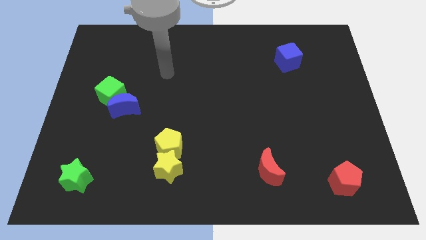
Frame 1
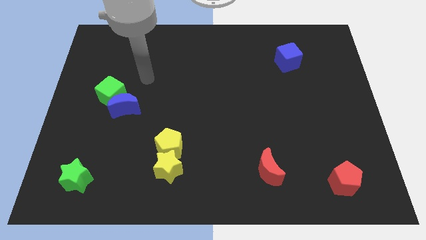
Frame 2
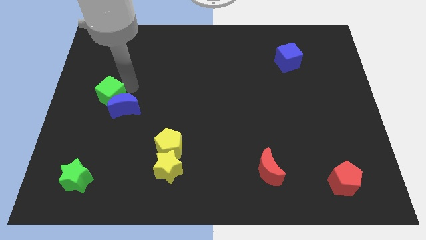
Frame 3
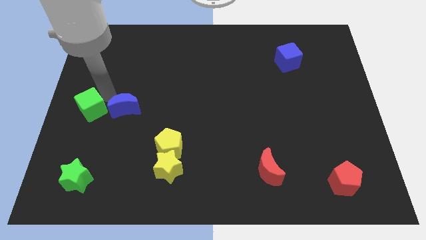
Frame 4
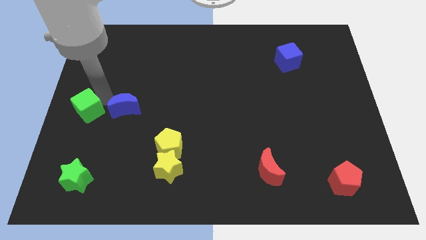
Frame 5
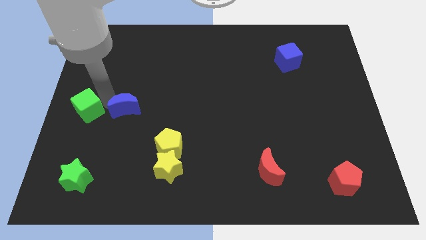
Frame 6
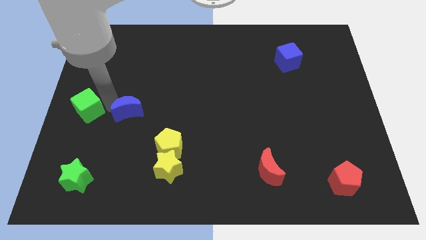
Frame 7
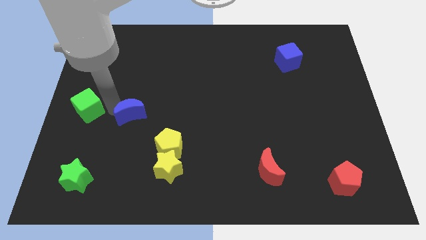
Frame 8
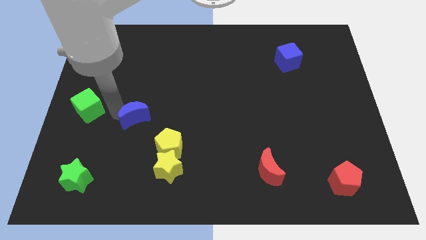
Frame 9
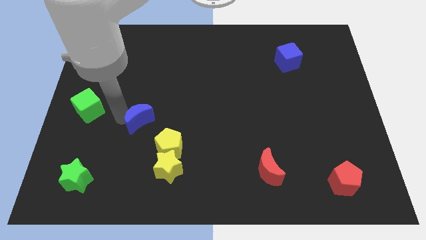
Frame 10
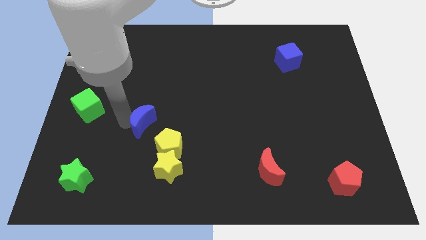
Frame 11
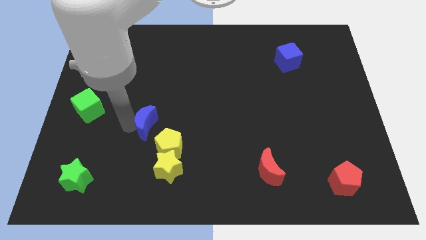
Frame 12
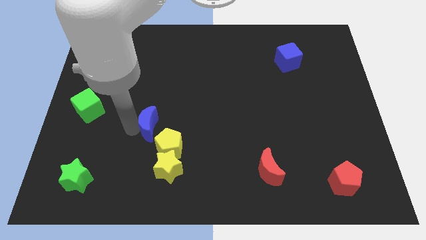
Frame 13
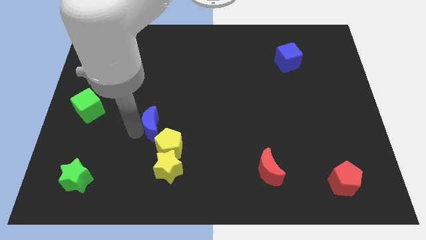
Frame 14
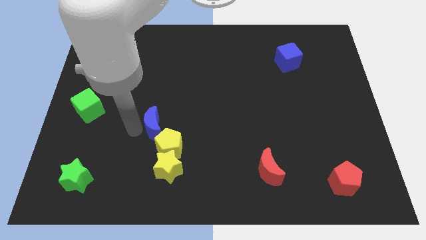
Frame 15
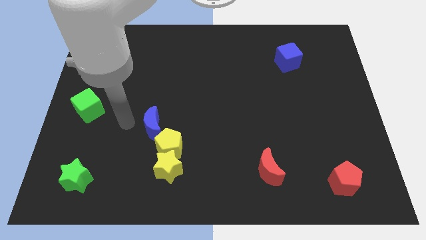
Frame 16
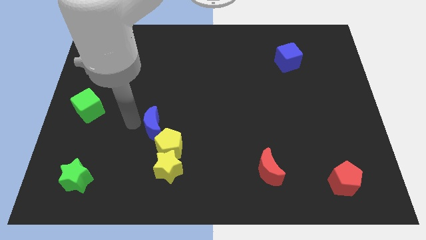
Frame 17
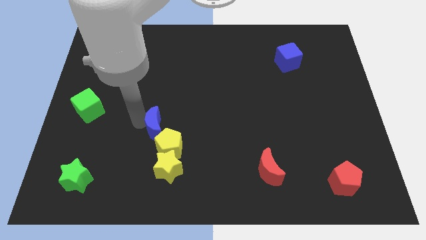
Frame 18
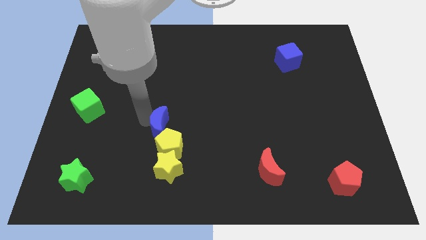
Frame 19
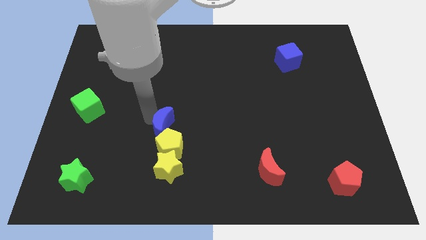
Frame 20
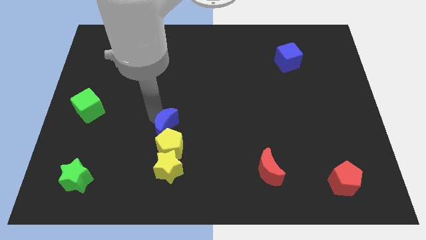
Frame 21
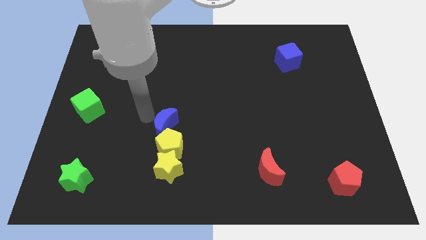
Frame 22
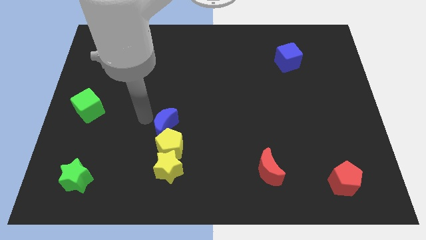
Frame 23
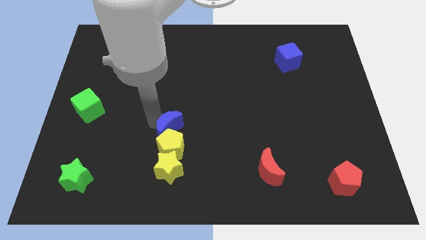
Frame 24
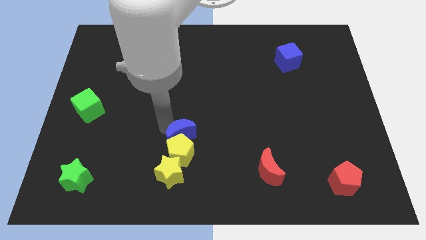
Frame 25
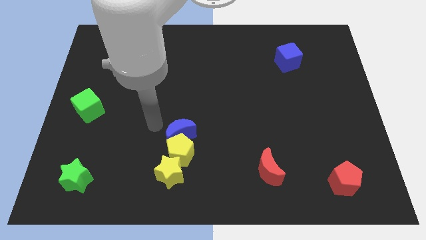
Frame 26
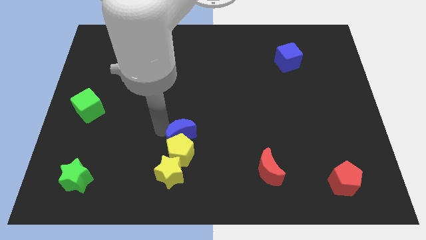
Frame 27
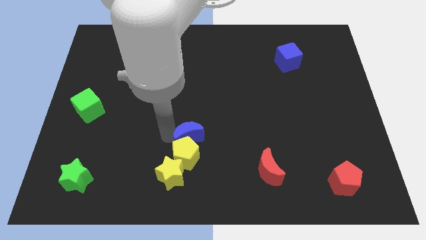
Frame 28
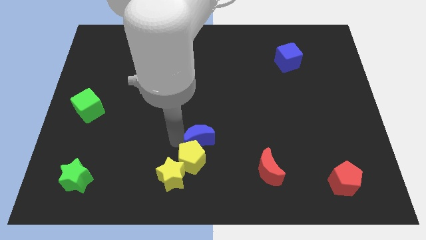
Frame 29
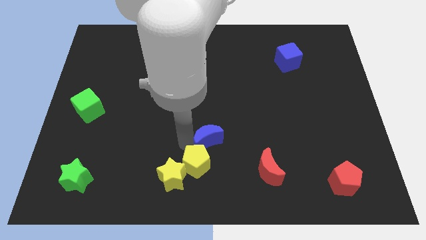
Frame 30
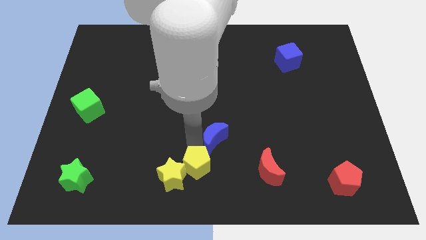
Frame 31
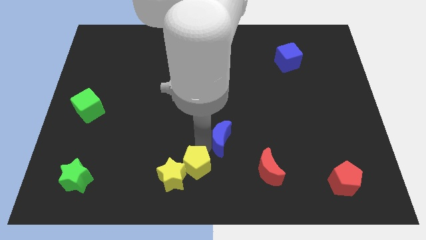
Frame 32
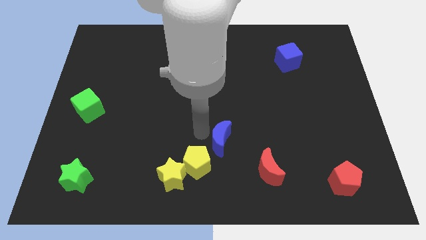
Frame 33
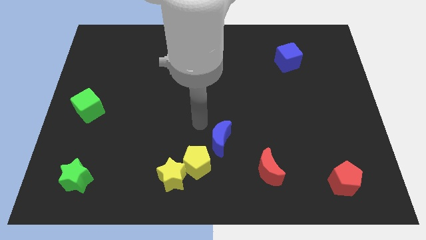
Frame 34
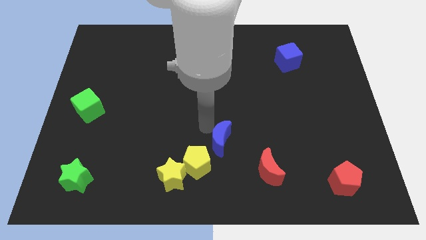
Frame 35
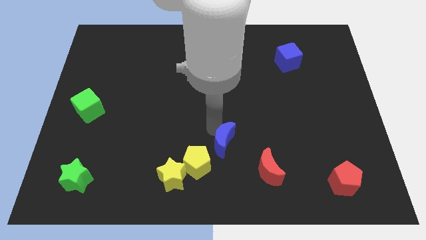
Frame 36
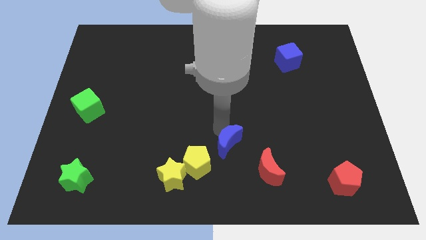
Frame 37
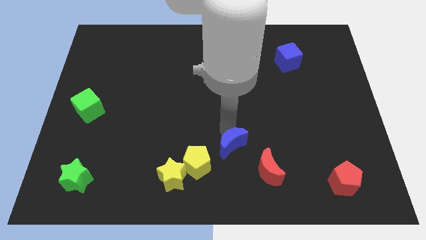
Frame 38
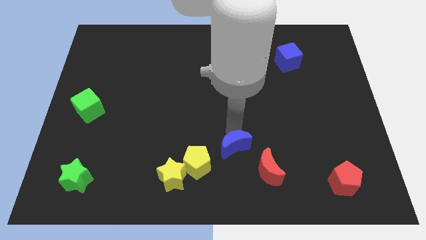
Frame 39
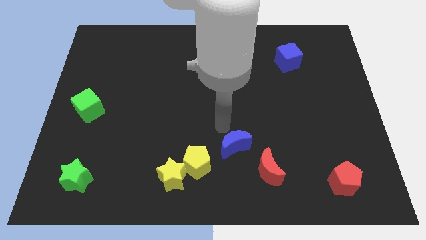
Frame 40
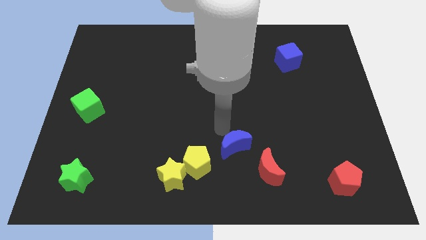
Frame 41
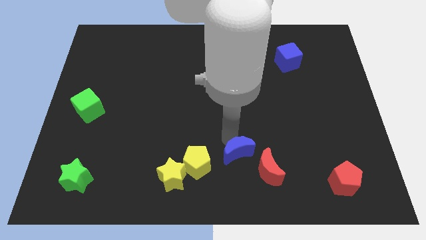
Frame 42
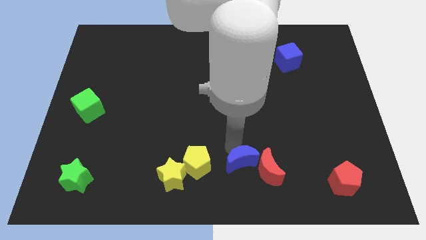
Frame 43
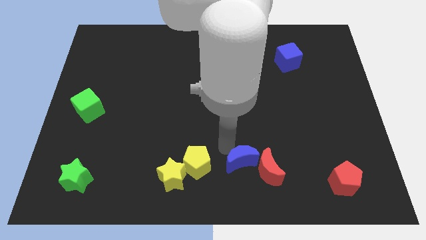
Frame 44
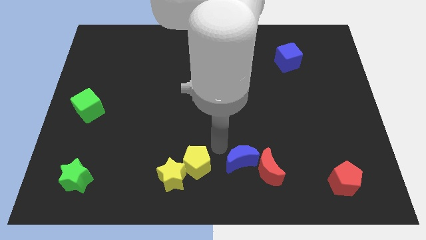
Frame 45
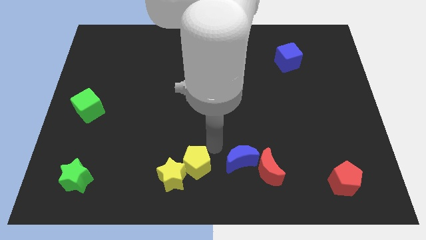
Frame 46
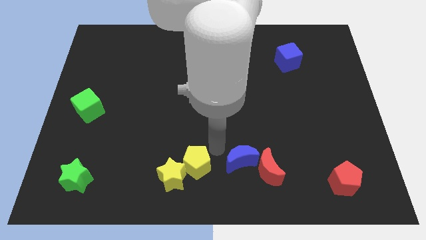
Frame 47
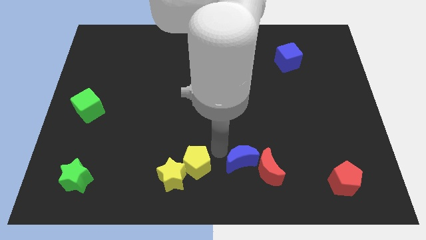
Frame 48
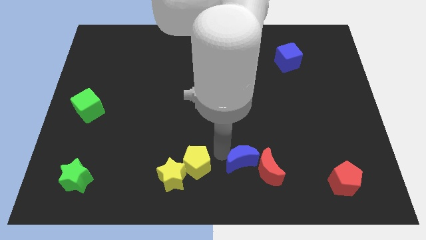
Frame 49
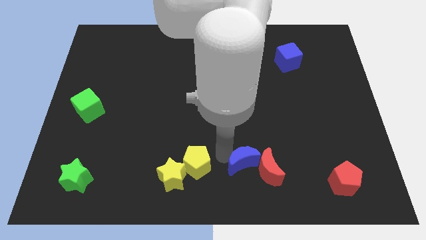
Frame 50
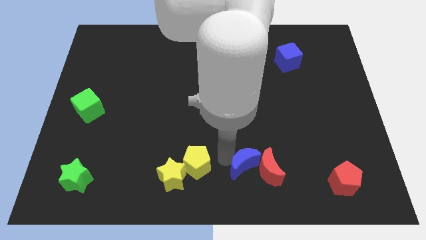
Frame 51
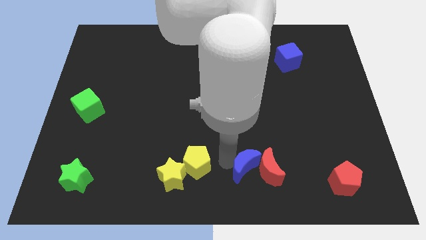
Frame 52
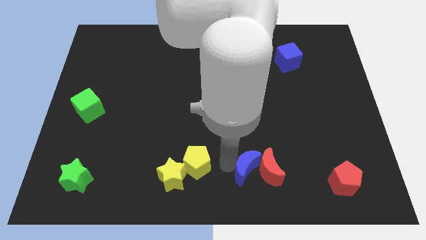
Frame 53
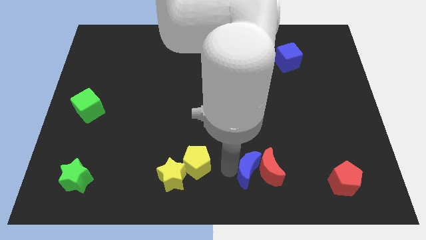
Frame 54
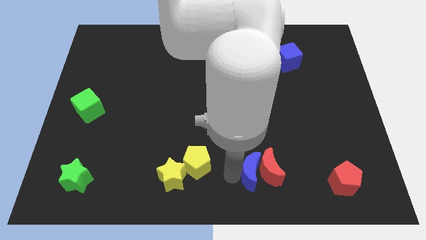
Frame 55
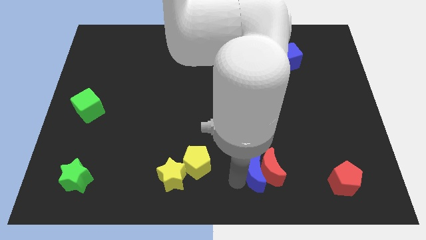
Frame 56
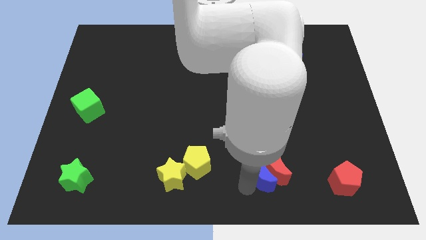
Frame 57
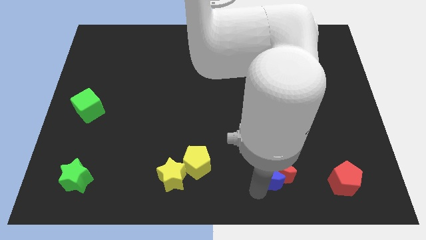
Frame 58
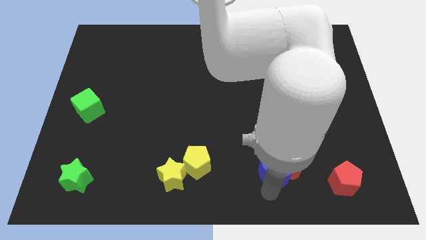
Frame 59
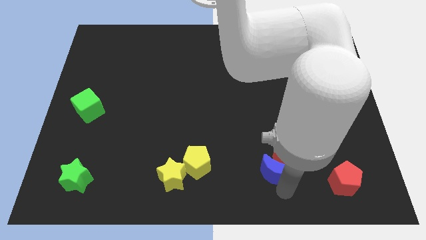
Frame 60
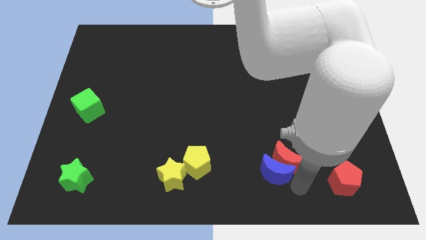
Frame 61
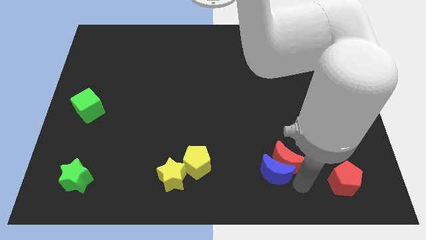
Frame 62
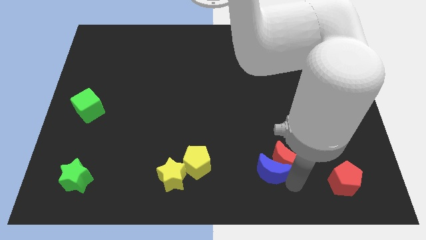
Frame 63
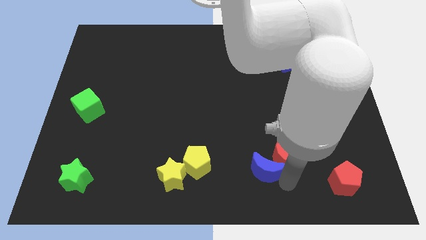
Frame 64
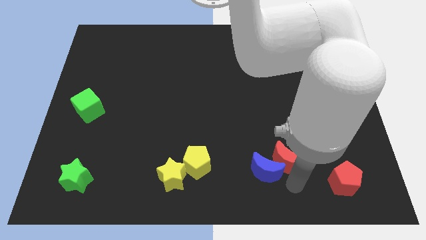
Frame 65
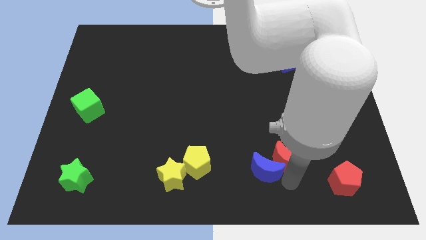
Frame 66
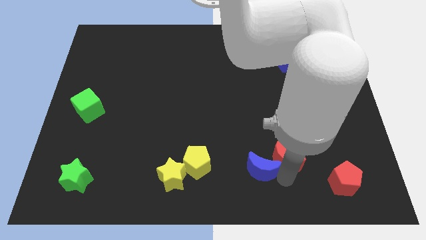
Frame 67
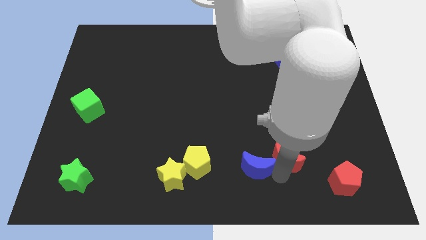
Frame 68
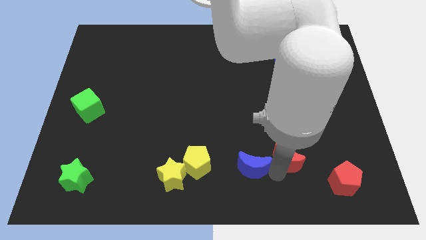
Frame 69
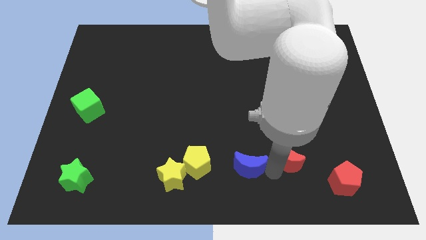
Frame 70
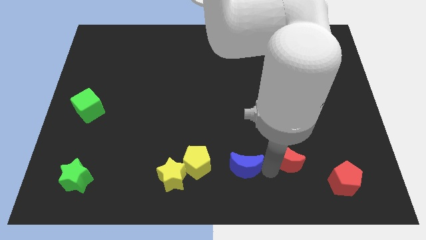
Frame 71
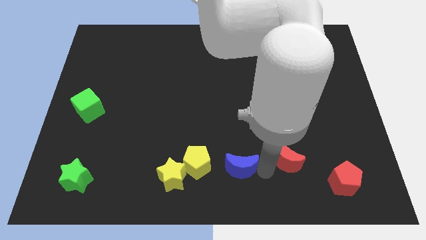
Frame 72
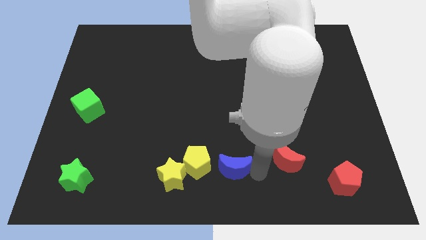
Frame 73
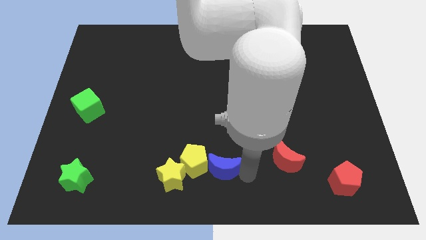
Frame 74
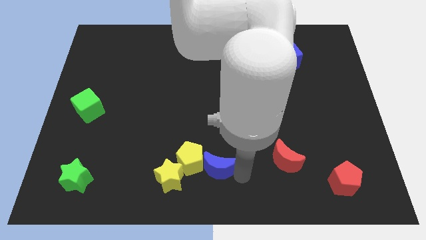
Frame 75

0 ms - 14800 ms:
slide the blue moon just right of the yellow pentagon

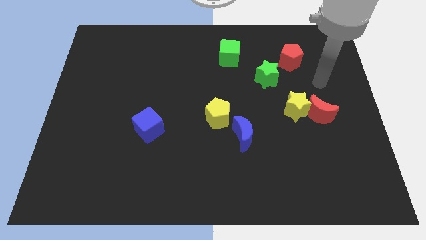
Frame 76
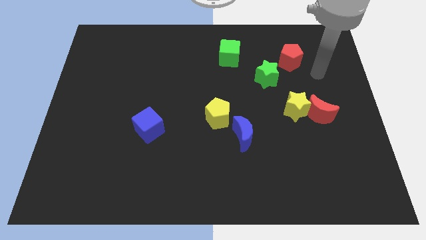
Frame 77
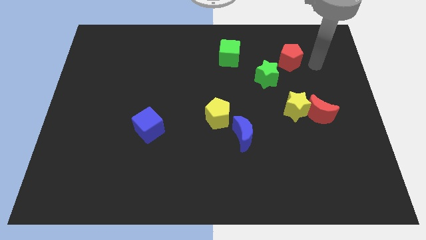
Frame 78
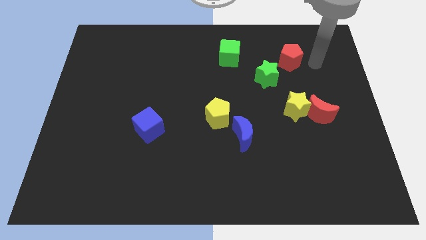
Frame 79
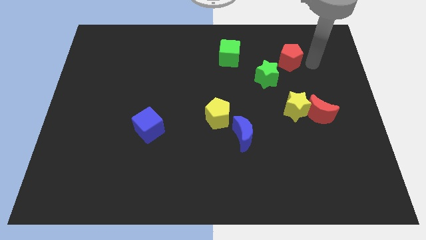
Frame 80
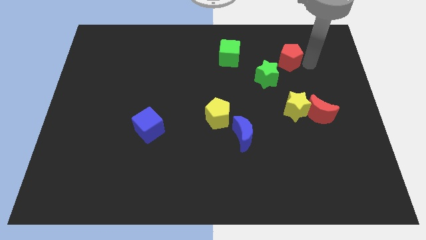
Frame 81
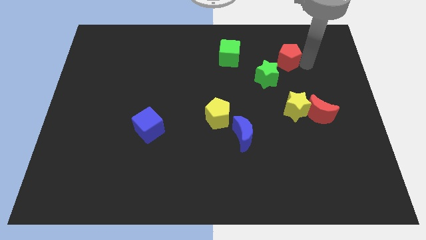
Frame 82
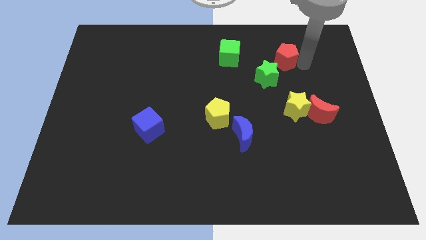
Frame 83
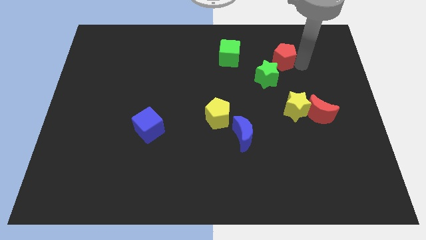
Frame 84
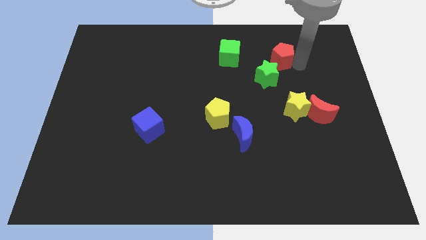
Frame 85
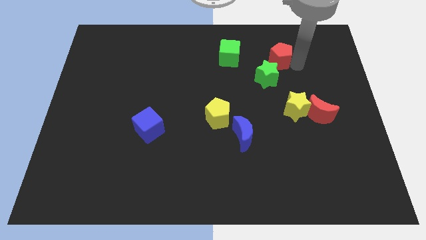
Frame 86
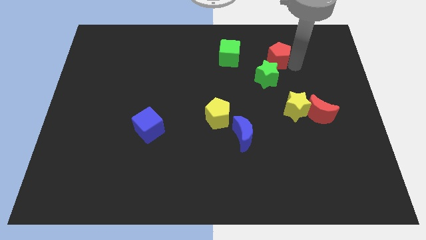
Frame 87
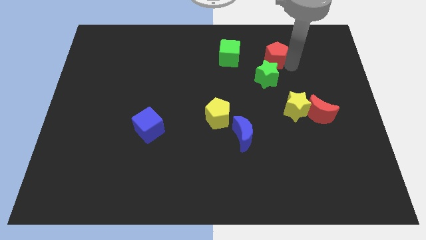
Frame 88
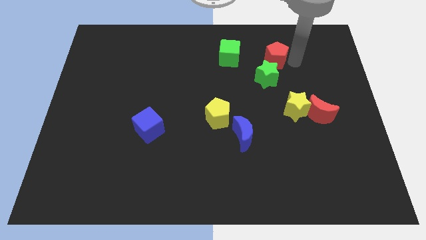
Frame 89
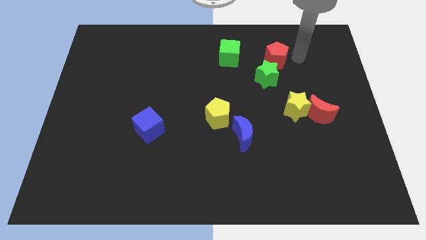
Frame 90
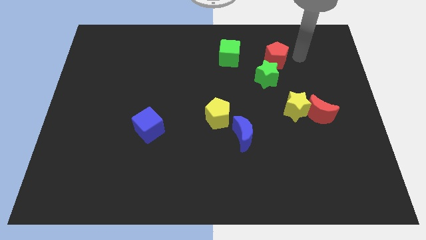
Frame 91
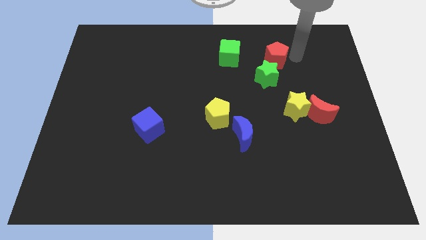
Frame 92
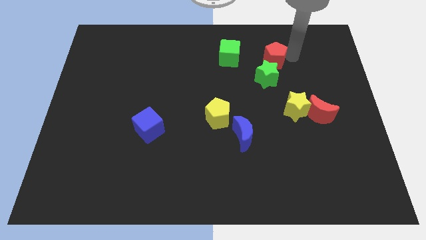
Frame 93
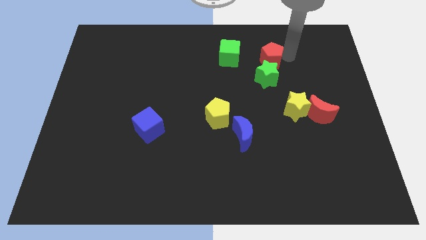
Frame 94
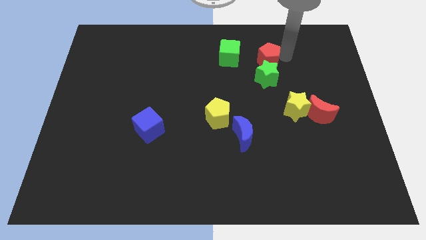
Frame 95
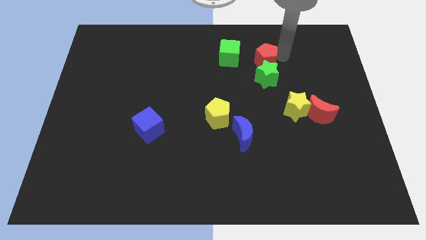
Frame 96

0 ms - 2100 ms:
put the red pentagon diagonally up and to the left of the green star
